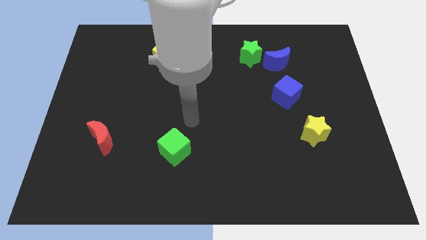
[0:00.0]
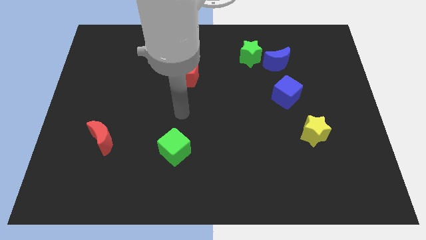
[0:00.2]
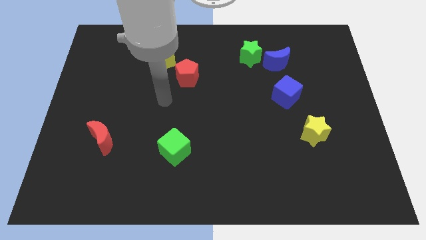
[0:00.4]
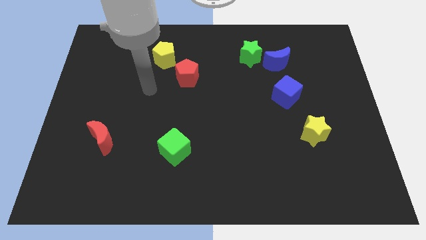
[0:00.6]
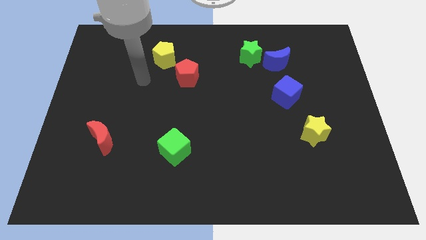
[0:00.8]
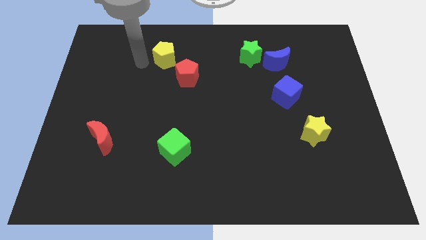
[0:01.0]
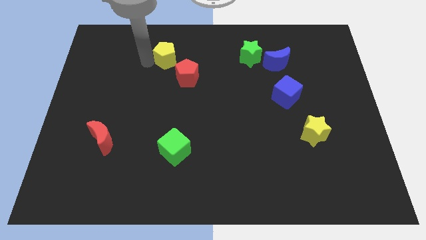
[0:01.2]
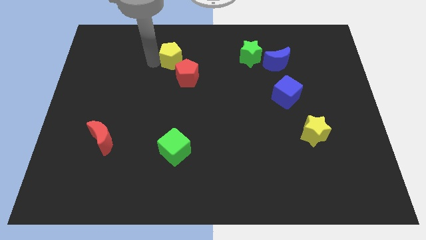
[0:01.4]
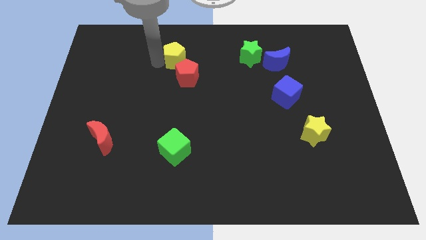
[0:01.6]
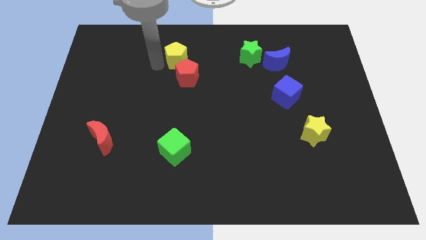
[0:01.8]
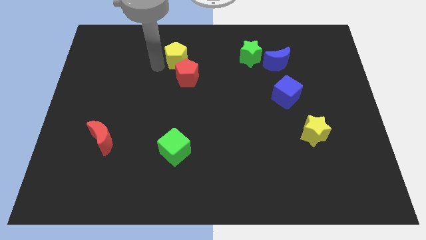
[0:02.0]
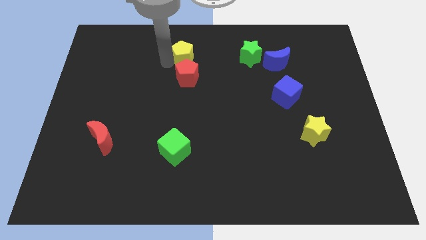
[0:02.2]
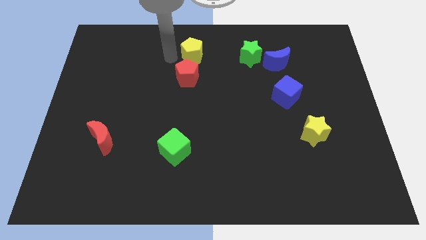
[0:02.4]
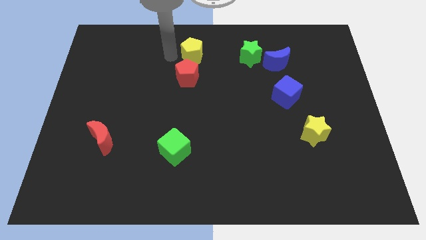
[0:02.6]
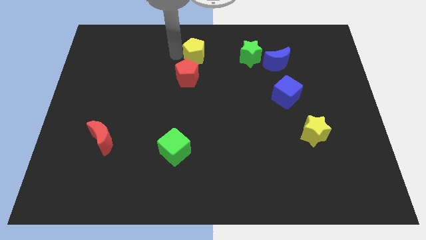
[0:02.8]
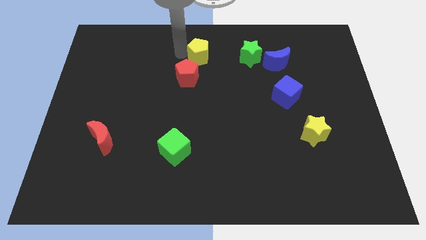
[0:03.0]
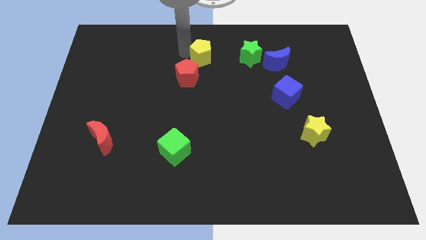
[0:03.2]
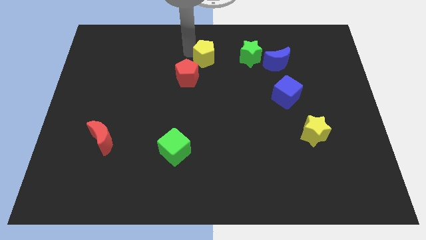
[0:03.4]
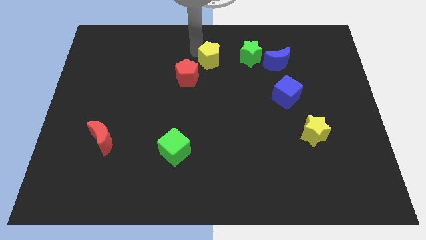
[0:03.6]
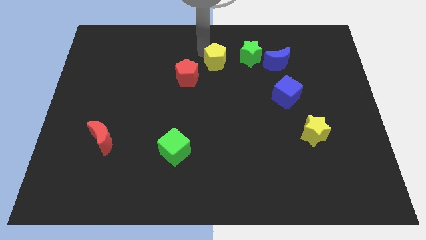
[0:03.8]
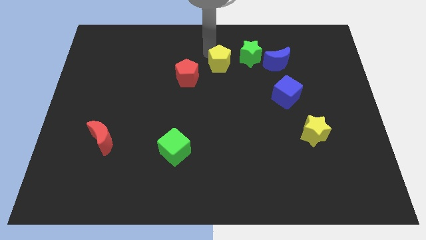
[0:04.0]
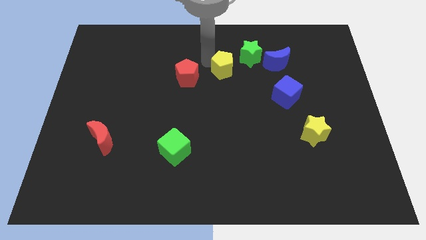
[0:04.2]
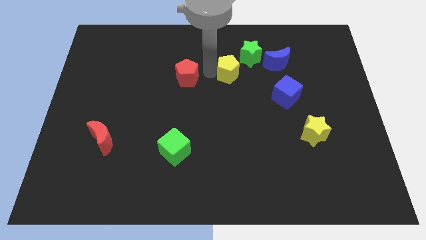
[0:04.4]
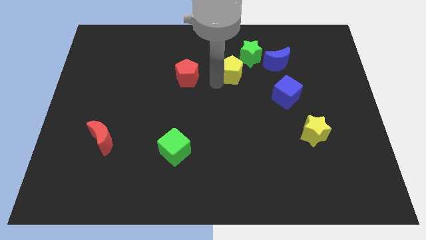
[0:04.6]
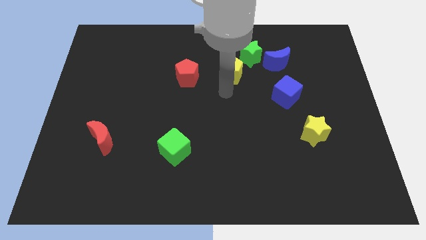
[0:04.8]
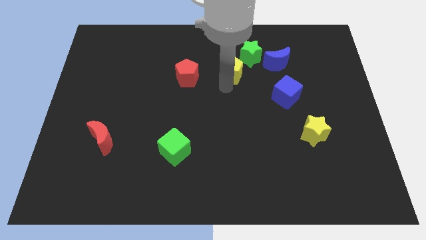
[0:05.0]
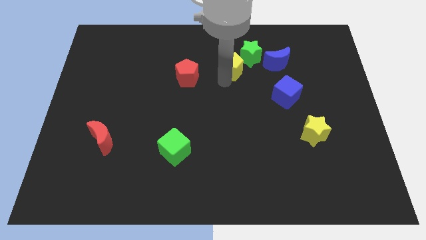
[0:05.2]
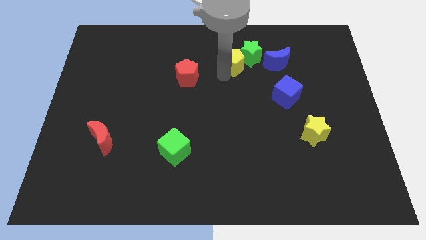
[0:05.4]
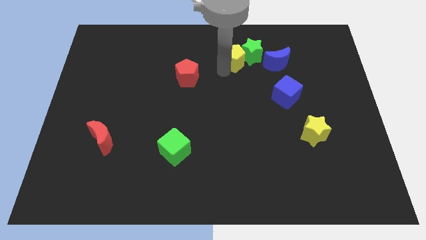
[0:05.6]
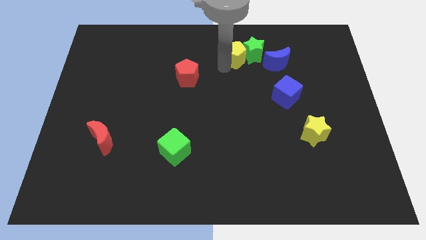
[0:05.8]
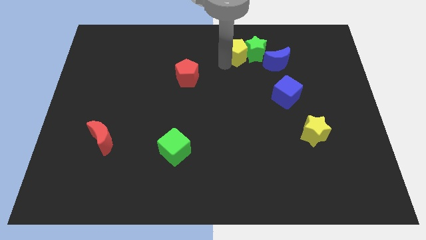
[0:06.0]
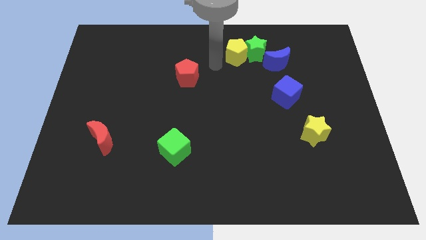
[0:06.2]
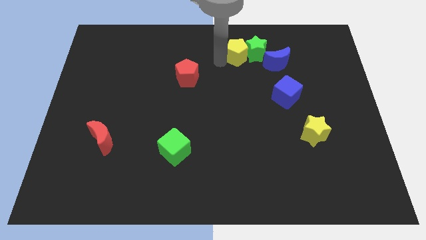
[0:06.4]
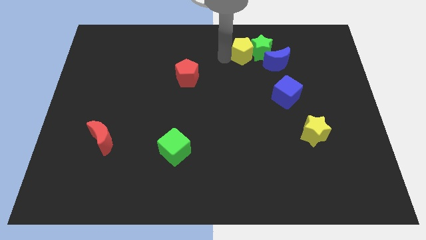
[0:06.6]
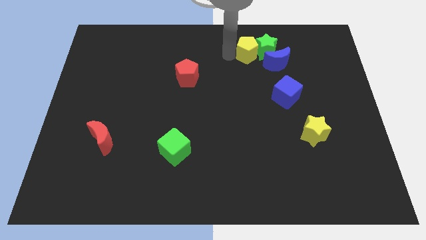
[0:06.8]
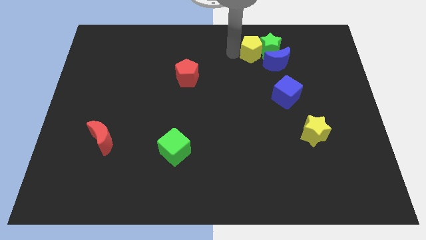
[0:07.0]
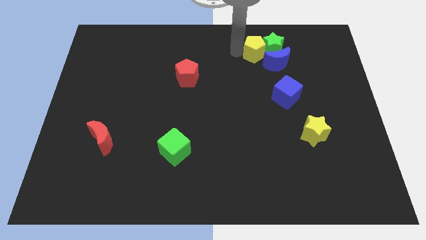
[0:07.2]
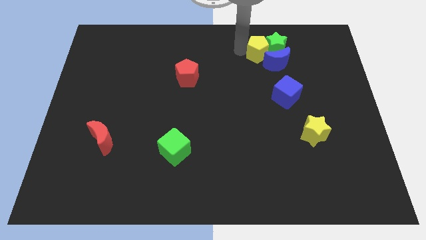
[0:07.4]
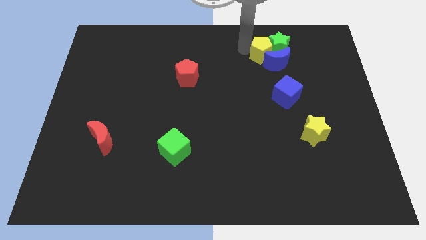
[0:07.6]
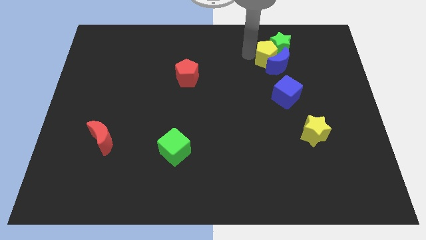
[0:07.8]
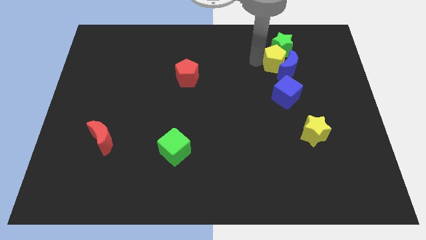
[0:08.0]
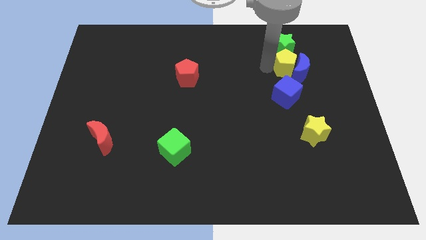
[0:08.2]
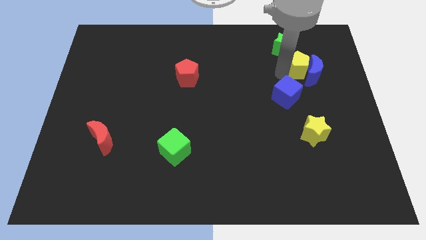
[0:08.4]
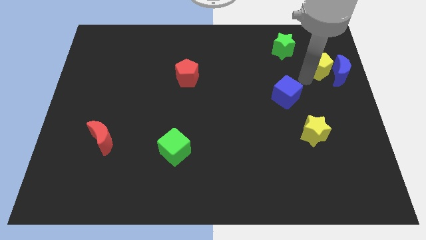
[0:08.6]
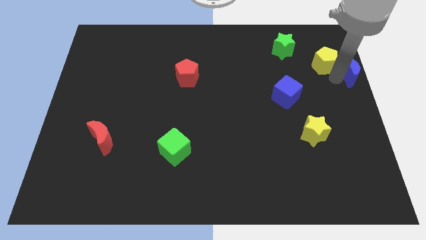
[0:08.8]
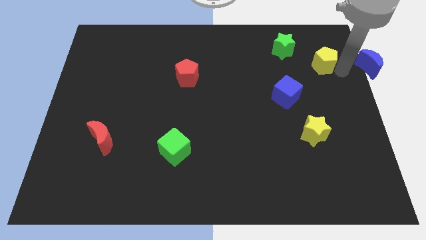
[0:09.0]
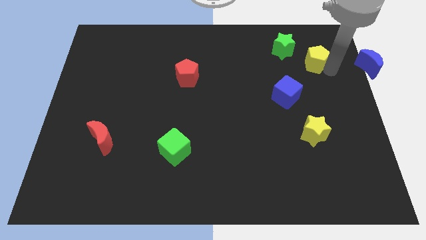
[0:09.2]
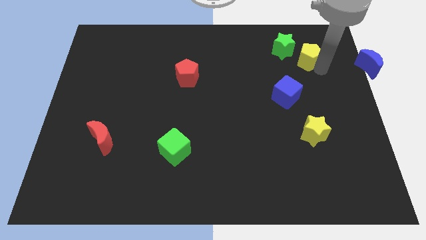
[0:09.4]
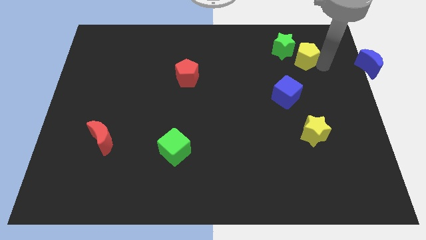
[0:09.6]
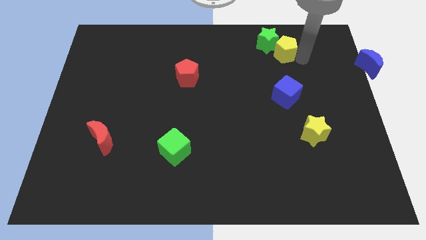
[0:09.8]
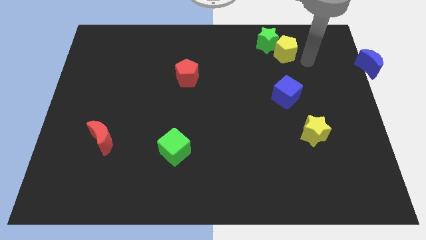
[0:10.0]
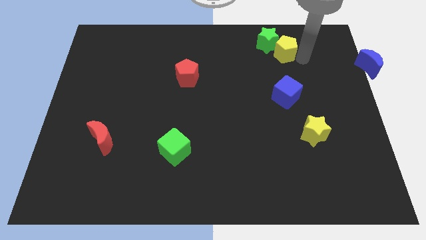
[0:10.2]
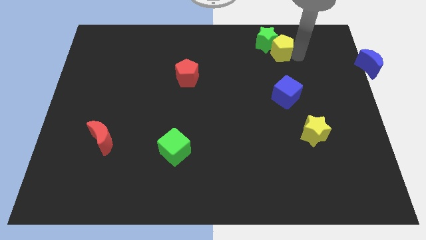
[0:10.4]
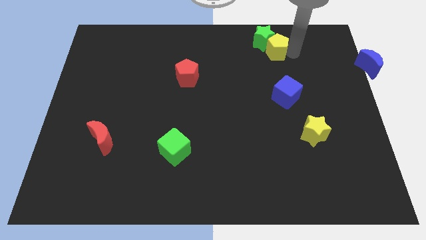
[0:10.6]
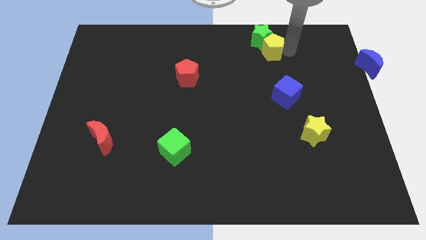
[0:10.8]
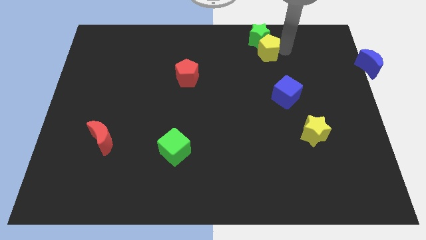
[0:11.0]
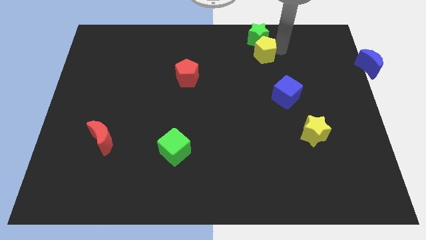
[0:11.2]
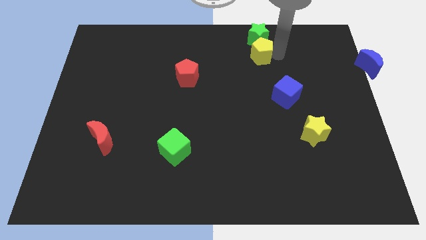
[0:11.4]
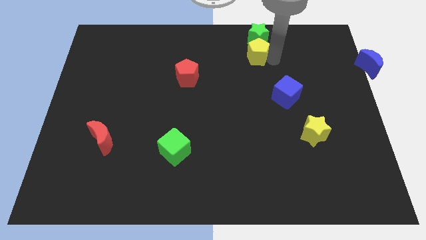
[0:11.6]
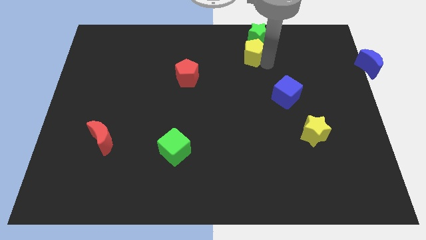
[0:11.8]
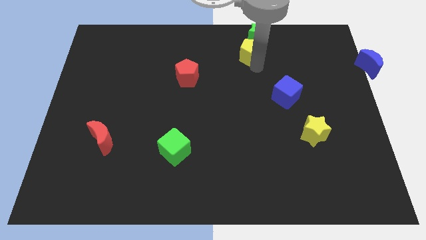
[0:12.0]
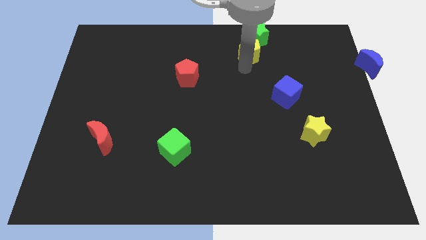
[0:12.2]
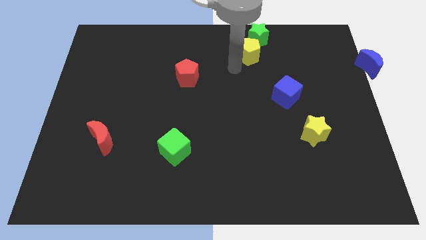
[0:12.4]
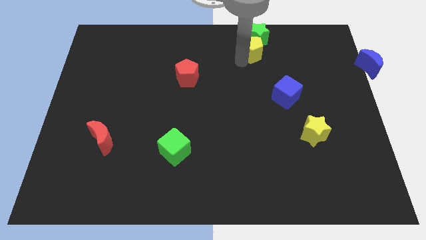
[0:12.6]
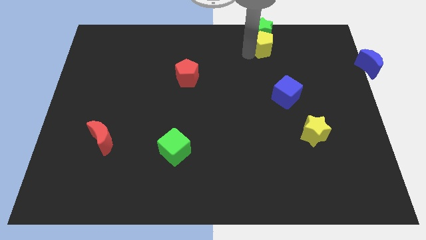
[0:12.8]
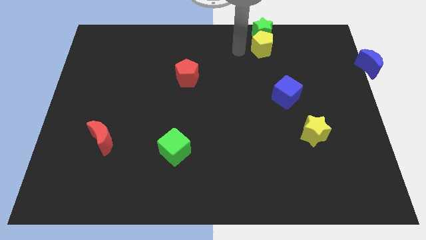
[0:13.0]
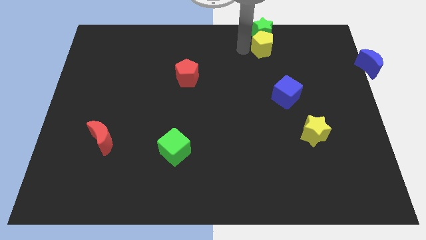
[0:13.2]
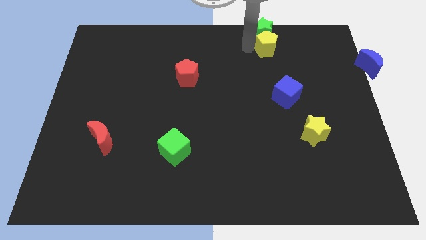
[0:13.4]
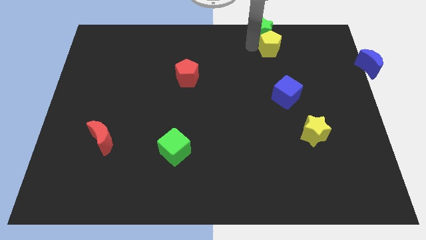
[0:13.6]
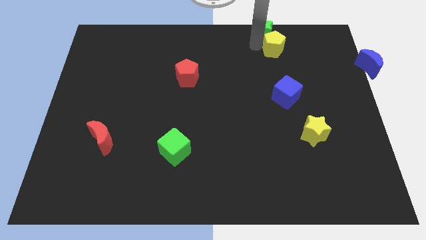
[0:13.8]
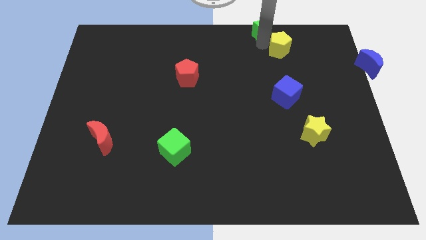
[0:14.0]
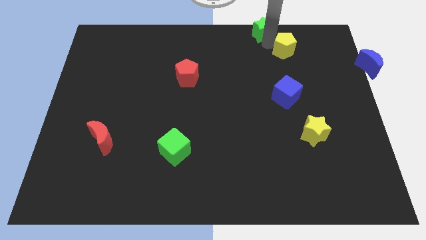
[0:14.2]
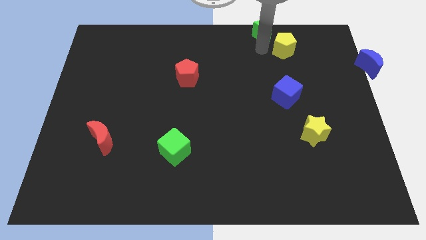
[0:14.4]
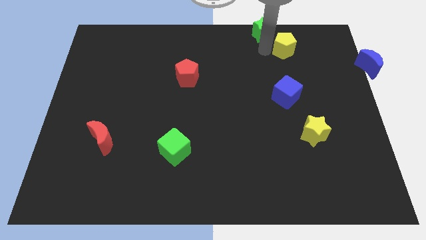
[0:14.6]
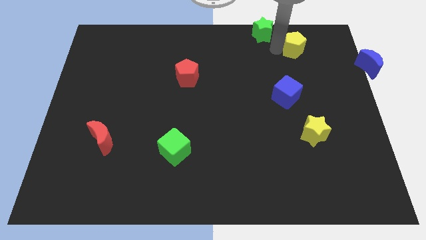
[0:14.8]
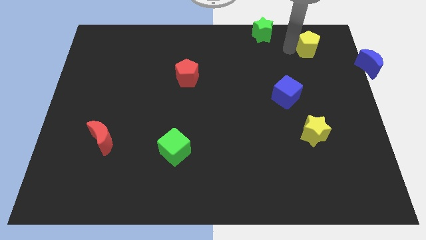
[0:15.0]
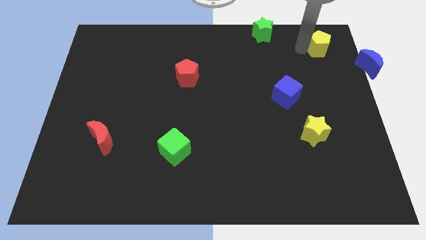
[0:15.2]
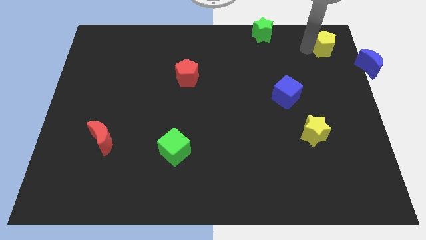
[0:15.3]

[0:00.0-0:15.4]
put the yellow pentagon to the top right corner
